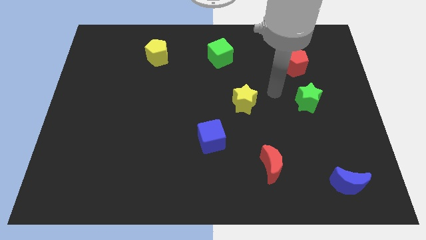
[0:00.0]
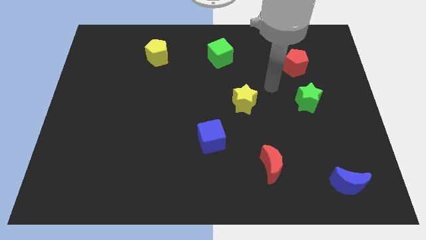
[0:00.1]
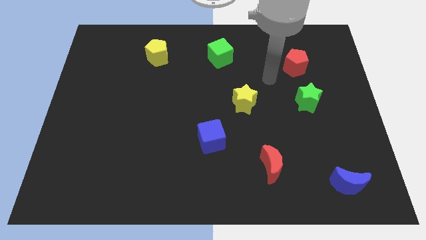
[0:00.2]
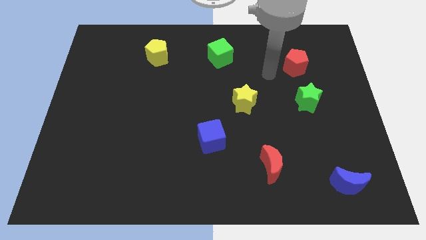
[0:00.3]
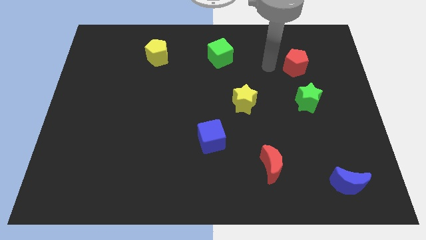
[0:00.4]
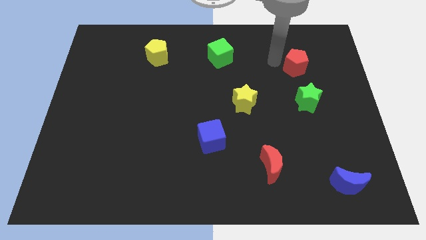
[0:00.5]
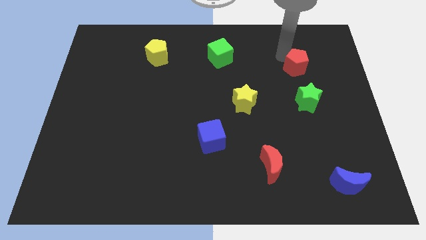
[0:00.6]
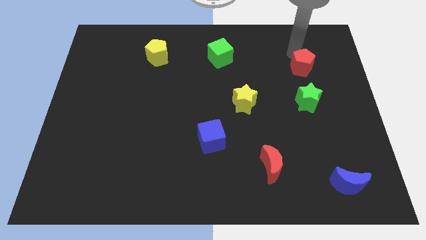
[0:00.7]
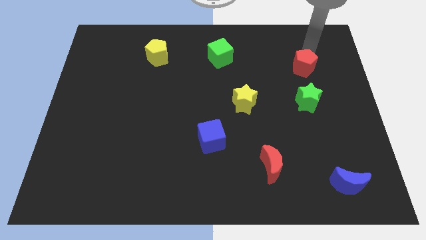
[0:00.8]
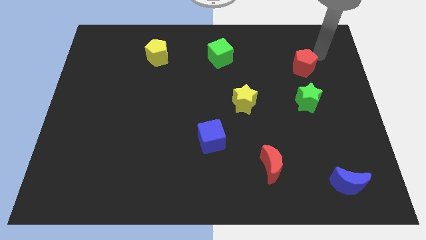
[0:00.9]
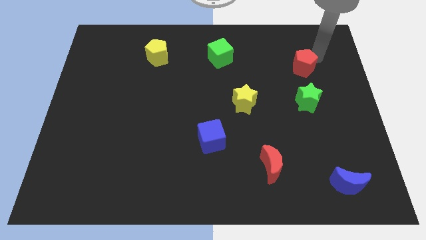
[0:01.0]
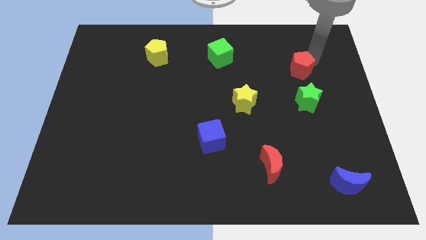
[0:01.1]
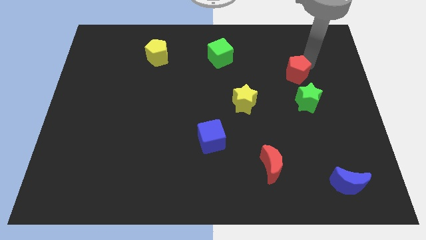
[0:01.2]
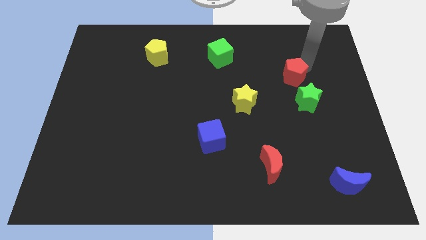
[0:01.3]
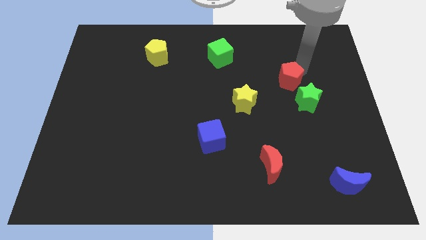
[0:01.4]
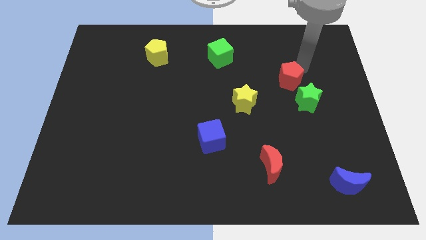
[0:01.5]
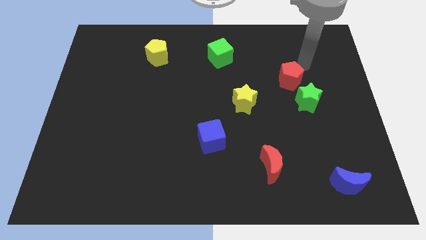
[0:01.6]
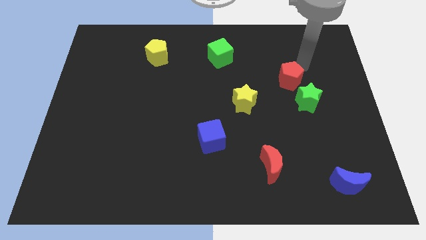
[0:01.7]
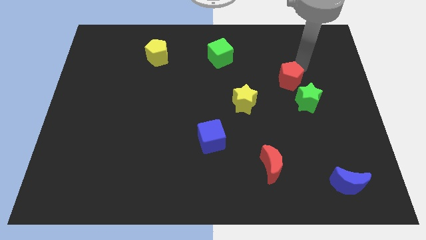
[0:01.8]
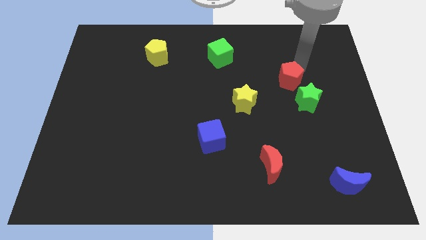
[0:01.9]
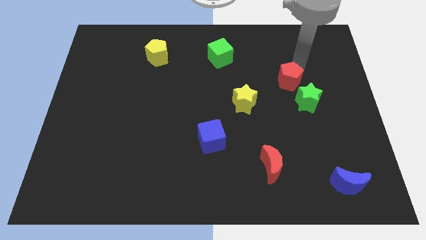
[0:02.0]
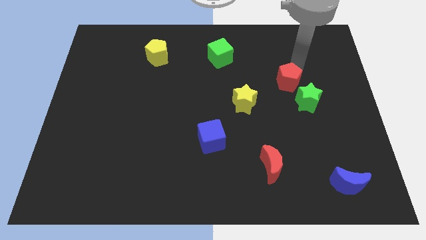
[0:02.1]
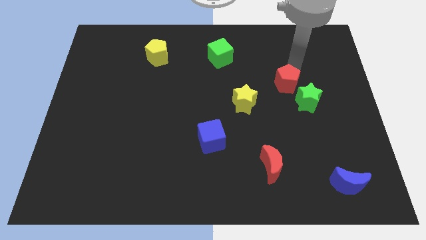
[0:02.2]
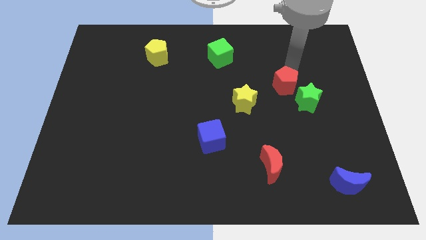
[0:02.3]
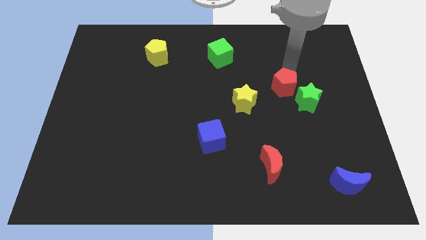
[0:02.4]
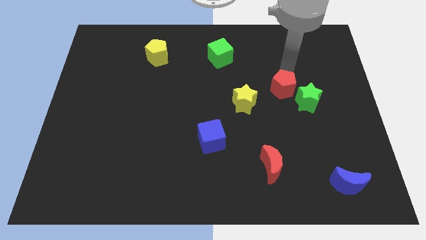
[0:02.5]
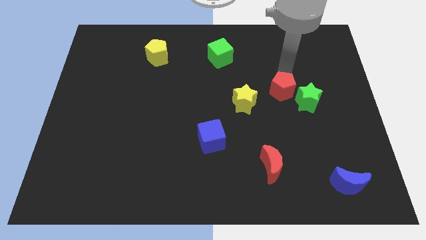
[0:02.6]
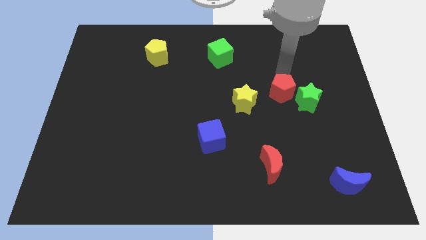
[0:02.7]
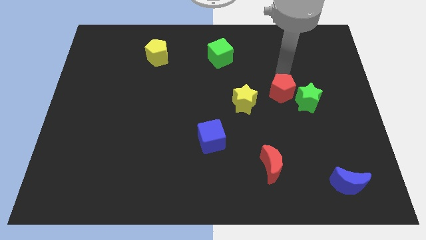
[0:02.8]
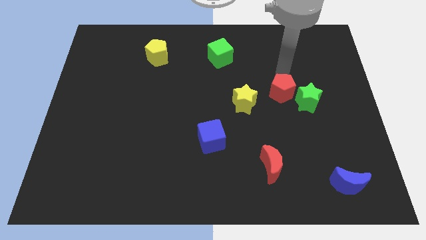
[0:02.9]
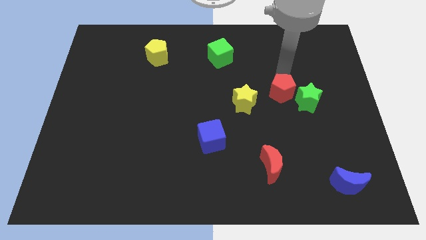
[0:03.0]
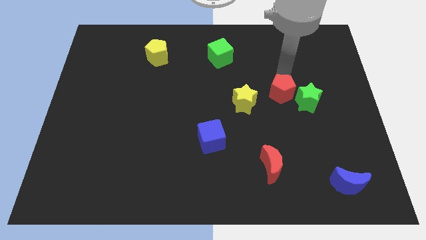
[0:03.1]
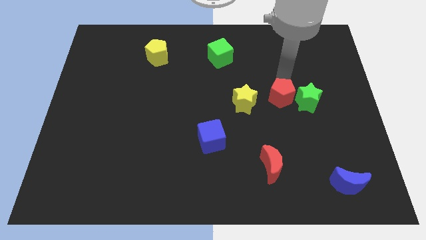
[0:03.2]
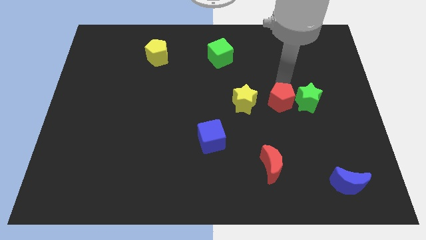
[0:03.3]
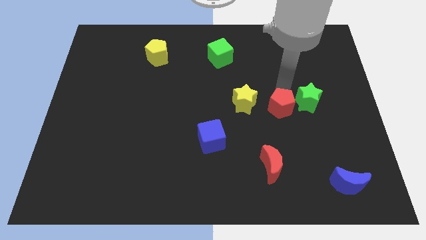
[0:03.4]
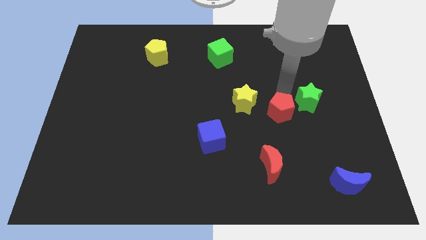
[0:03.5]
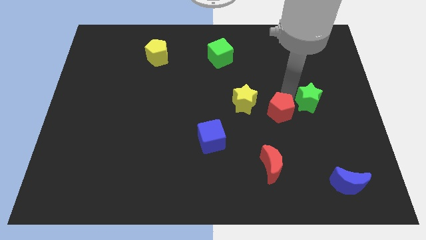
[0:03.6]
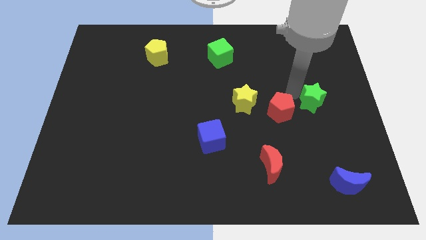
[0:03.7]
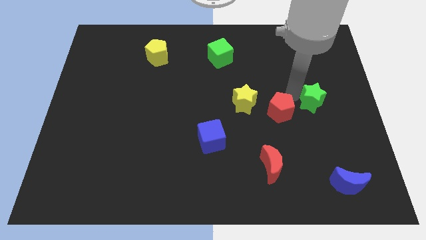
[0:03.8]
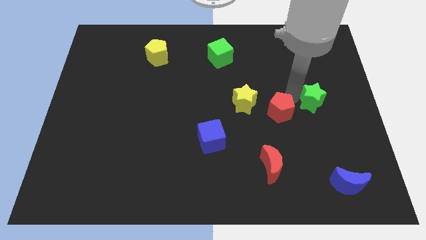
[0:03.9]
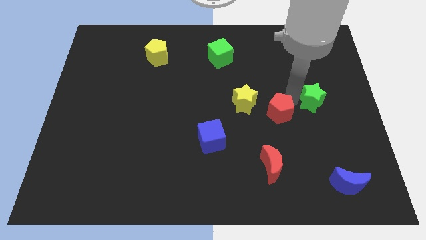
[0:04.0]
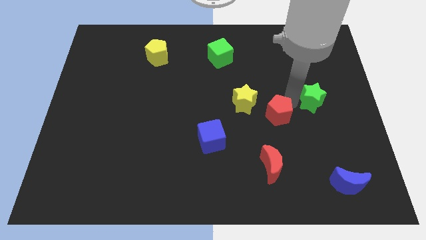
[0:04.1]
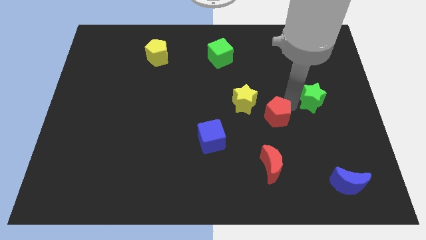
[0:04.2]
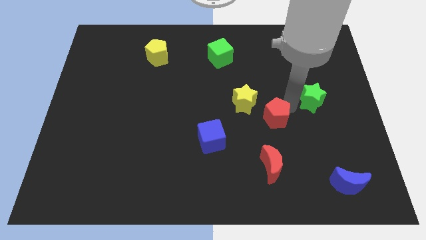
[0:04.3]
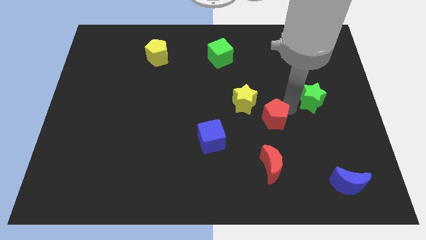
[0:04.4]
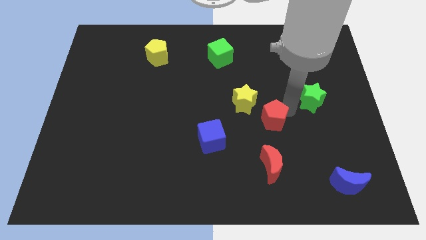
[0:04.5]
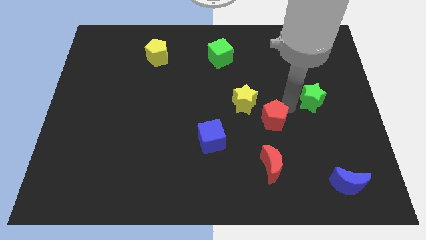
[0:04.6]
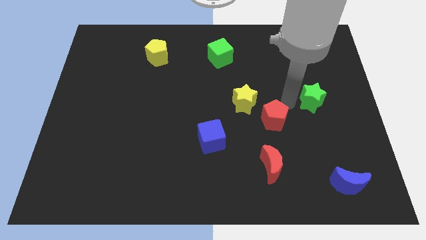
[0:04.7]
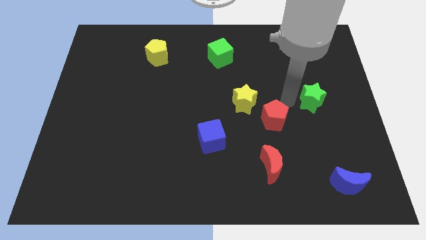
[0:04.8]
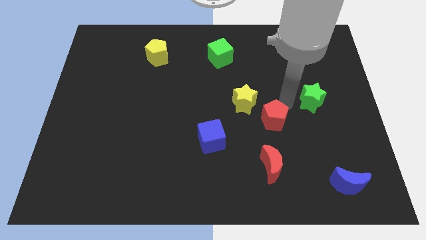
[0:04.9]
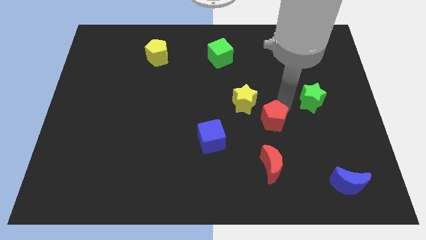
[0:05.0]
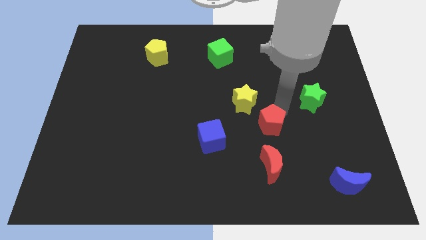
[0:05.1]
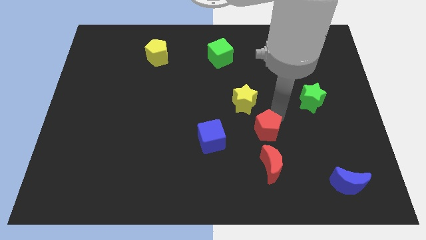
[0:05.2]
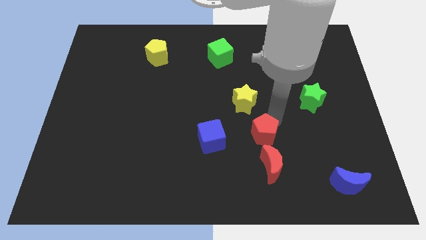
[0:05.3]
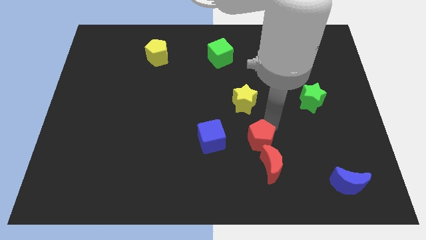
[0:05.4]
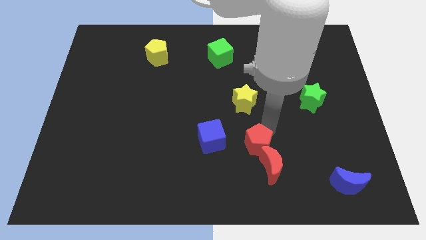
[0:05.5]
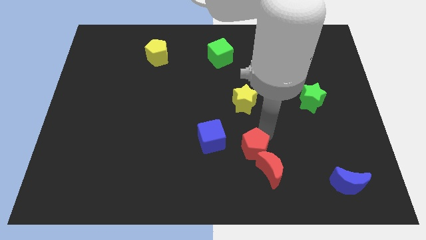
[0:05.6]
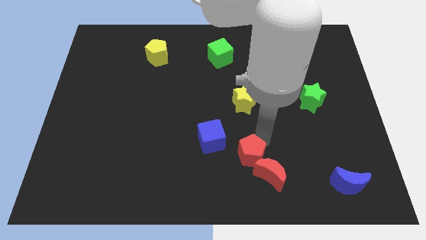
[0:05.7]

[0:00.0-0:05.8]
put the red pentagon diagonally down and to the right of the blue cube

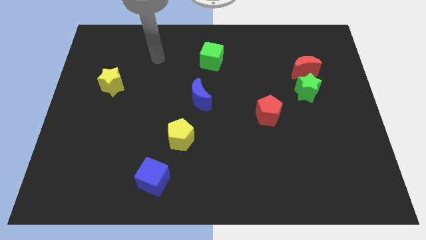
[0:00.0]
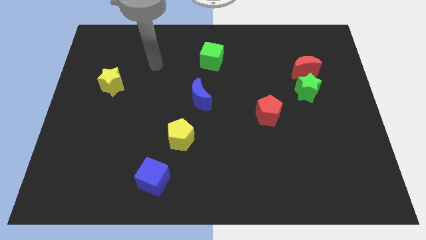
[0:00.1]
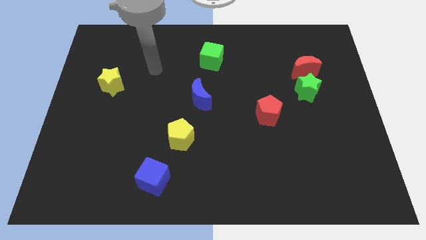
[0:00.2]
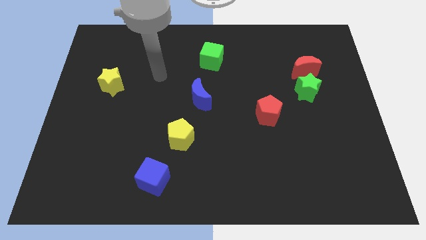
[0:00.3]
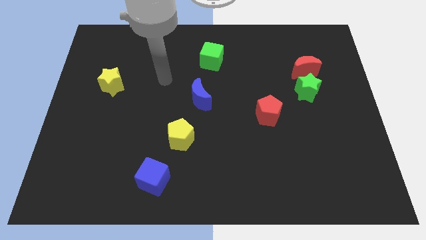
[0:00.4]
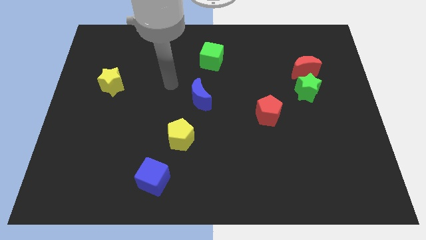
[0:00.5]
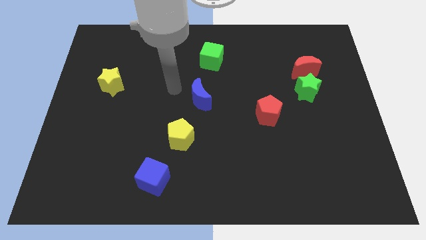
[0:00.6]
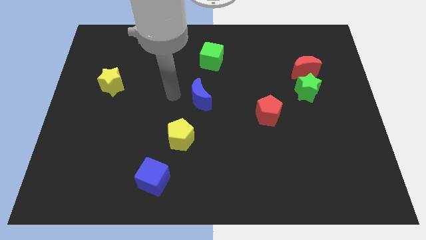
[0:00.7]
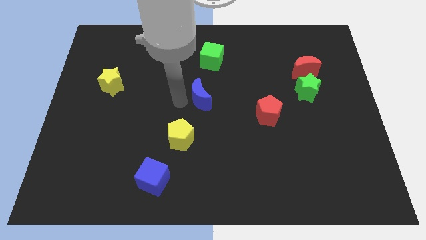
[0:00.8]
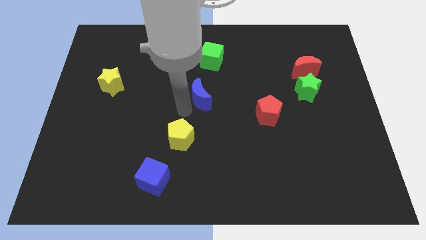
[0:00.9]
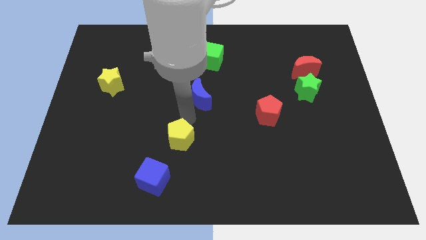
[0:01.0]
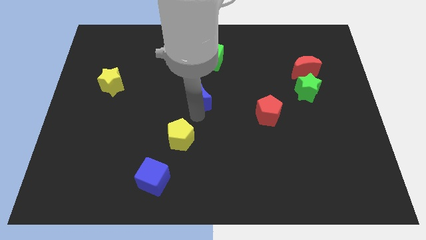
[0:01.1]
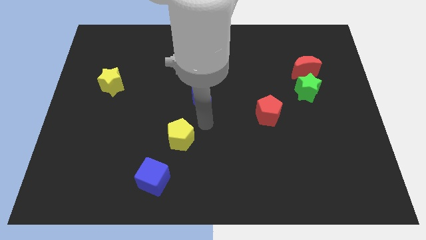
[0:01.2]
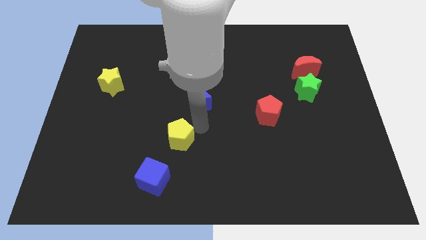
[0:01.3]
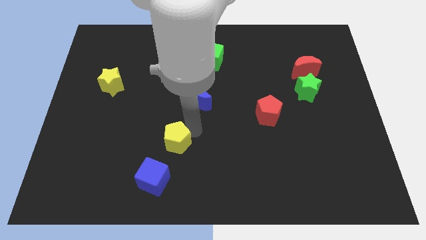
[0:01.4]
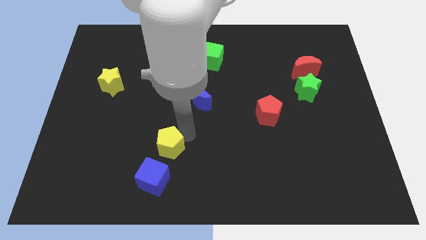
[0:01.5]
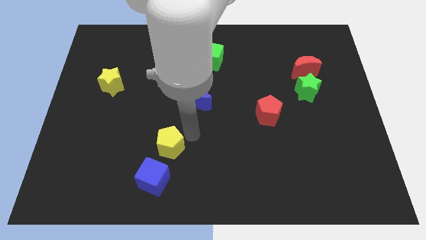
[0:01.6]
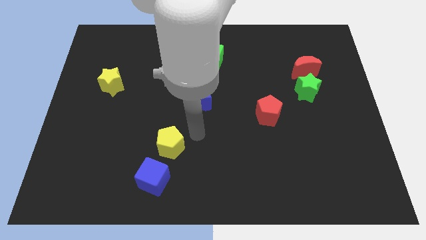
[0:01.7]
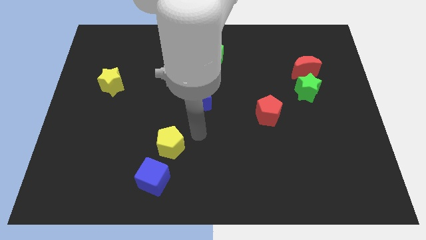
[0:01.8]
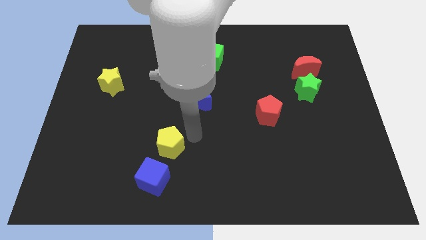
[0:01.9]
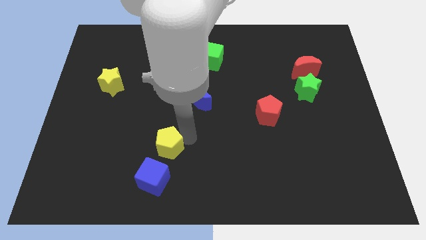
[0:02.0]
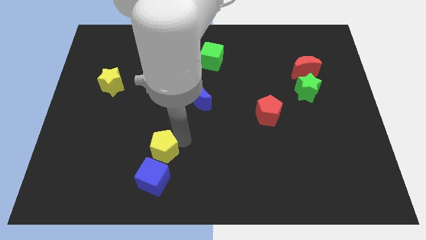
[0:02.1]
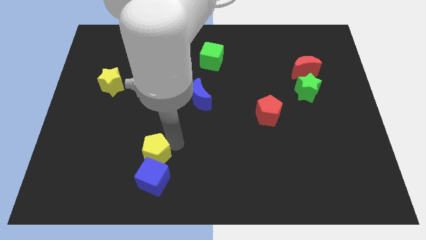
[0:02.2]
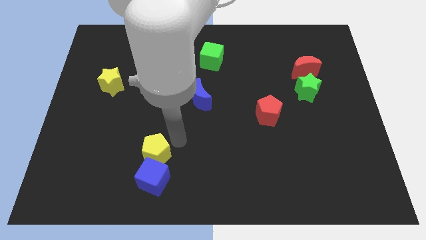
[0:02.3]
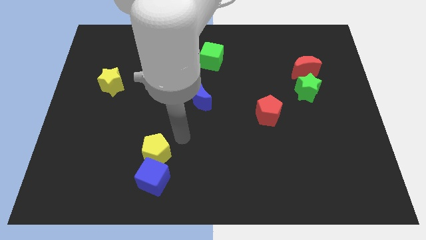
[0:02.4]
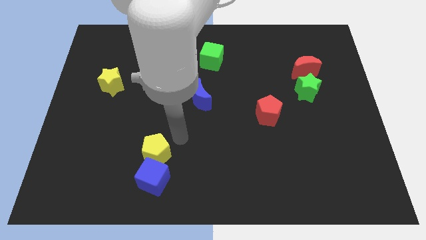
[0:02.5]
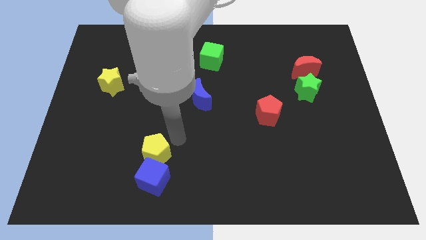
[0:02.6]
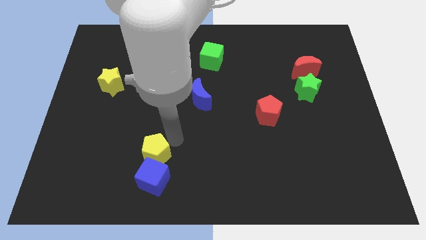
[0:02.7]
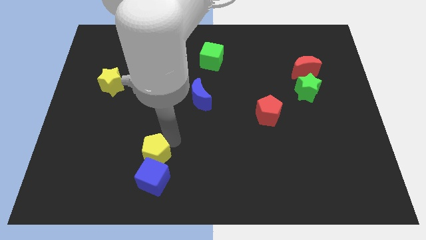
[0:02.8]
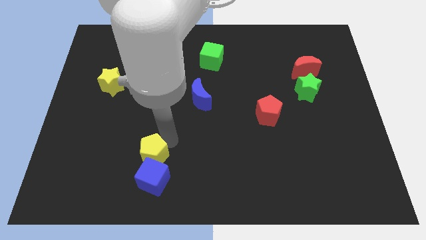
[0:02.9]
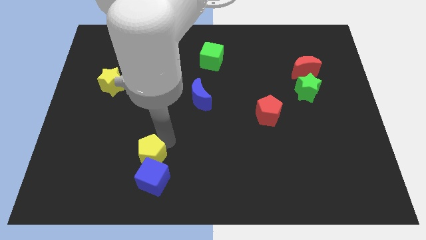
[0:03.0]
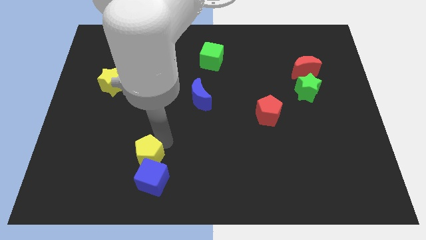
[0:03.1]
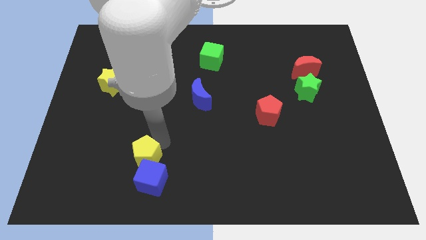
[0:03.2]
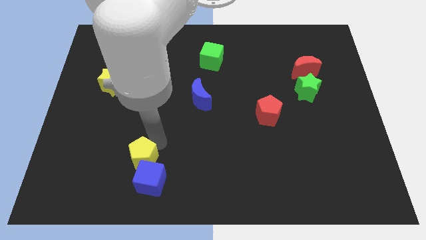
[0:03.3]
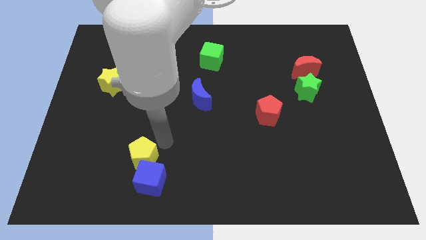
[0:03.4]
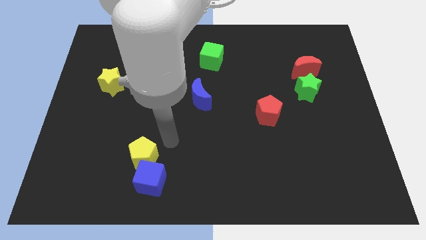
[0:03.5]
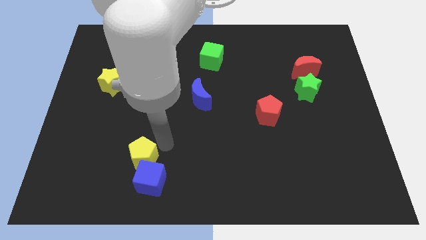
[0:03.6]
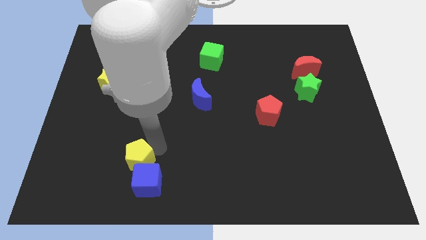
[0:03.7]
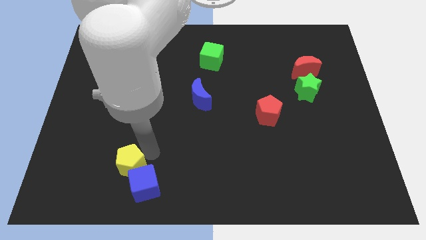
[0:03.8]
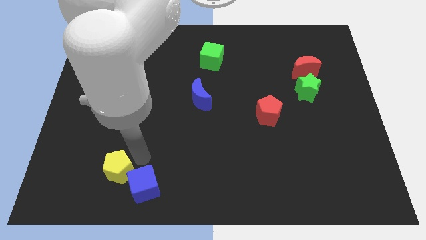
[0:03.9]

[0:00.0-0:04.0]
slide the yellow pentagon to the left of the blue cube
